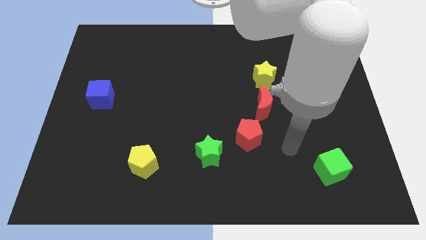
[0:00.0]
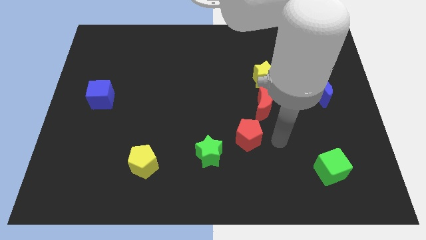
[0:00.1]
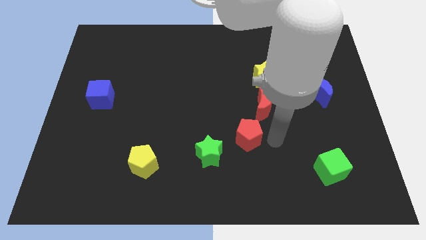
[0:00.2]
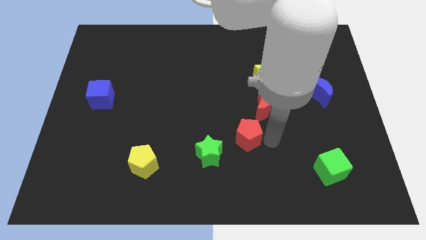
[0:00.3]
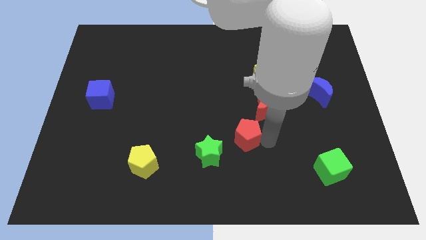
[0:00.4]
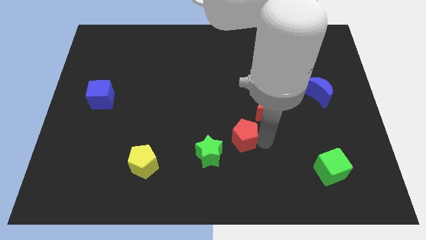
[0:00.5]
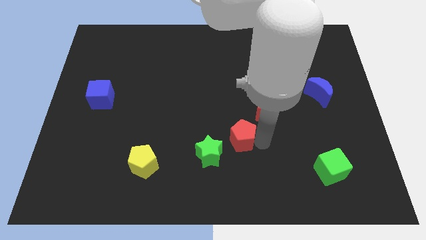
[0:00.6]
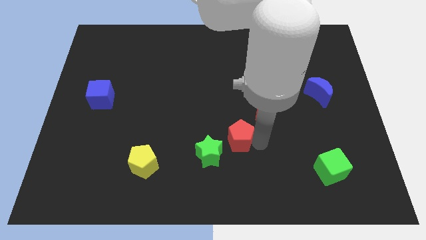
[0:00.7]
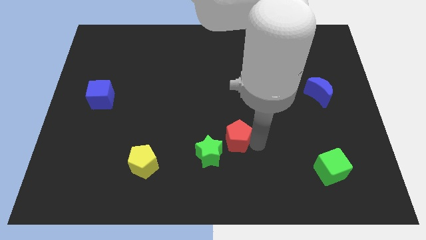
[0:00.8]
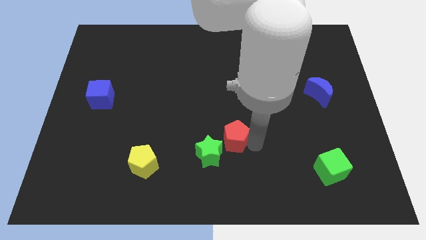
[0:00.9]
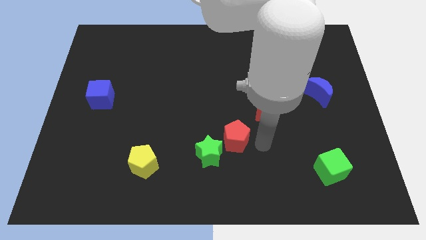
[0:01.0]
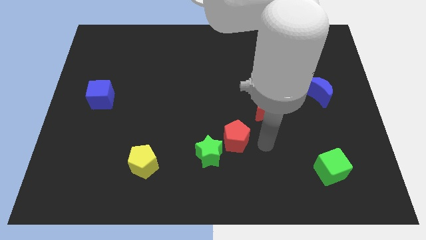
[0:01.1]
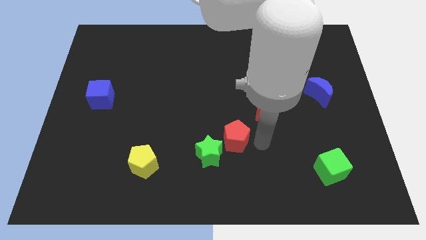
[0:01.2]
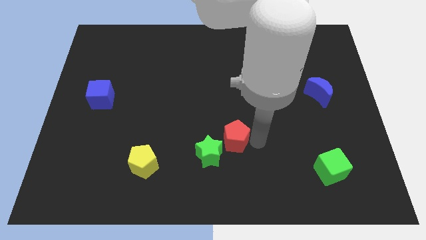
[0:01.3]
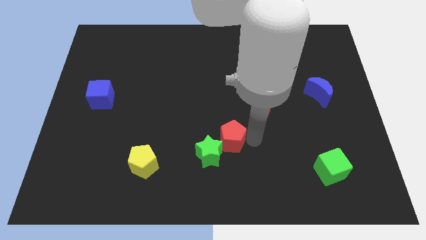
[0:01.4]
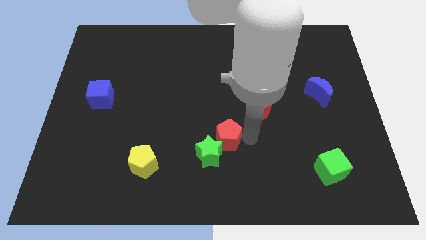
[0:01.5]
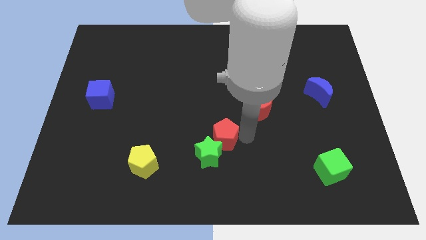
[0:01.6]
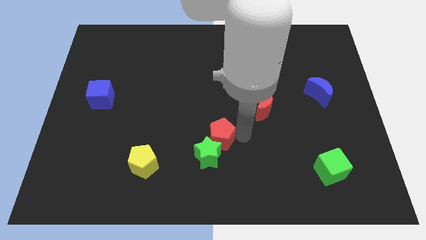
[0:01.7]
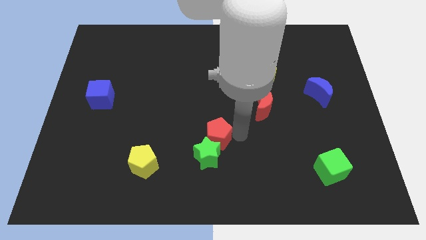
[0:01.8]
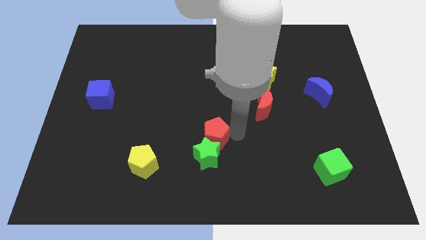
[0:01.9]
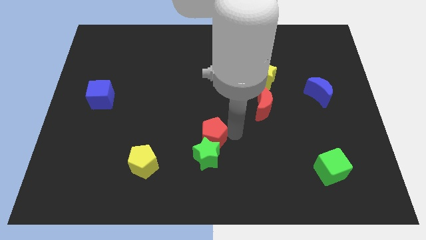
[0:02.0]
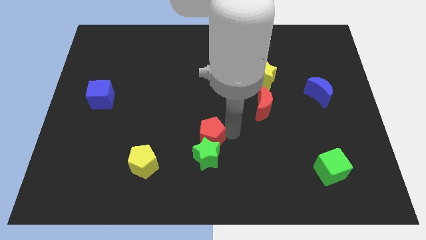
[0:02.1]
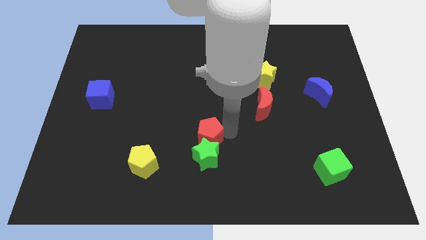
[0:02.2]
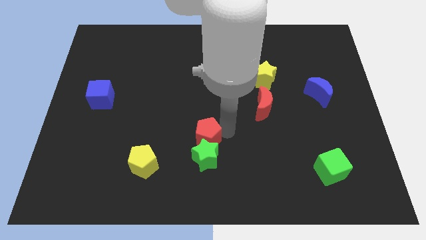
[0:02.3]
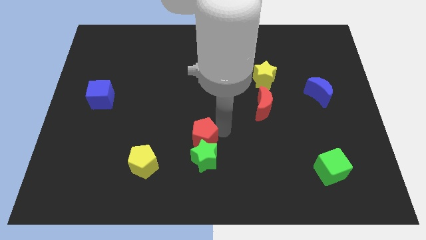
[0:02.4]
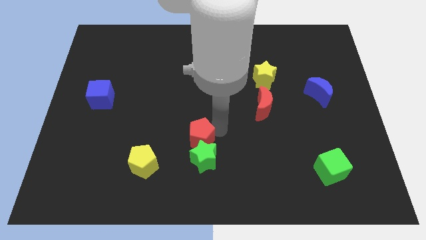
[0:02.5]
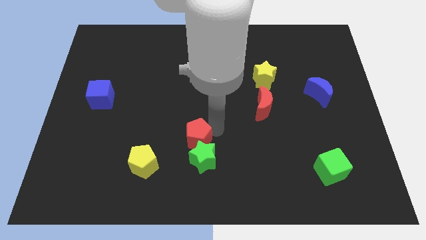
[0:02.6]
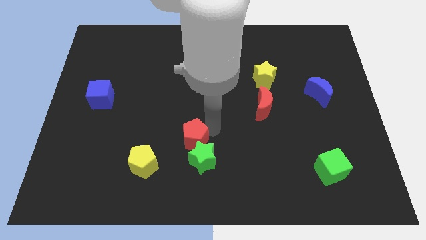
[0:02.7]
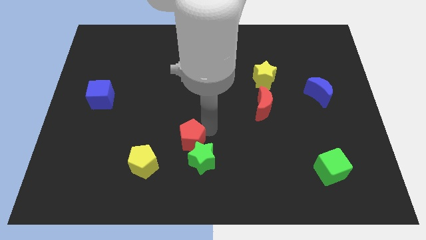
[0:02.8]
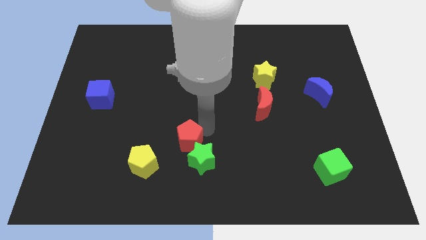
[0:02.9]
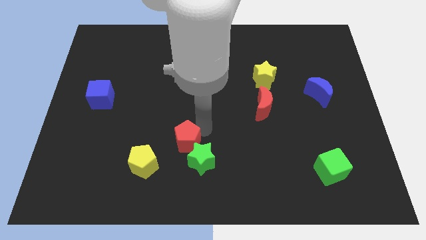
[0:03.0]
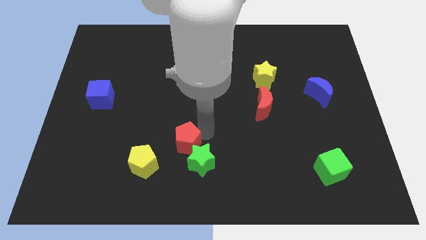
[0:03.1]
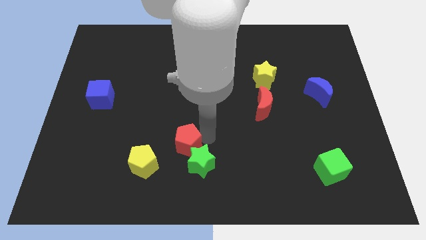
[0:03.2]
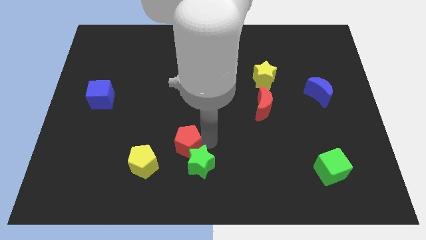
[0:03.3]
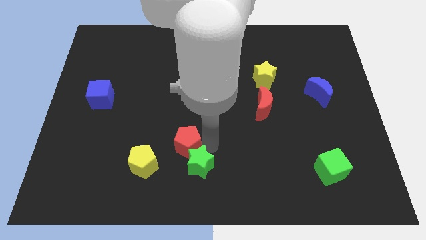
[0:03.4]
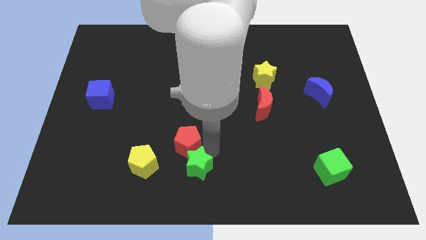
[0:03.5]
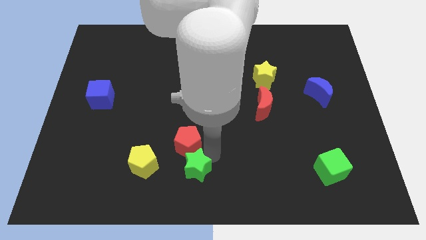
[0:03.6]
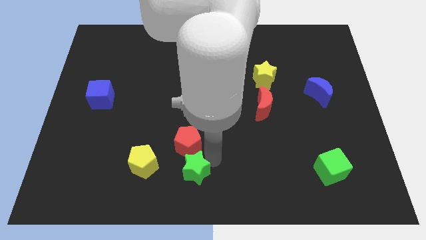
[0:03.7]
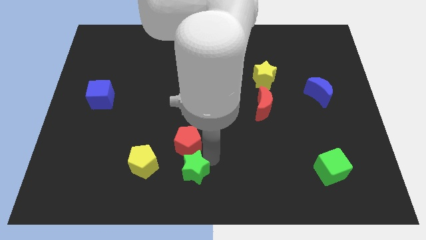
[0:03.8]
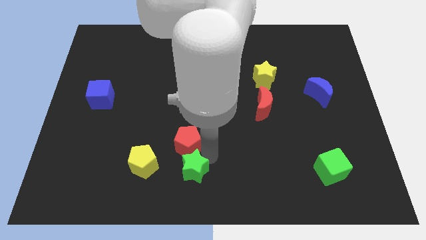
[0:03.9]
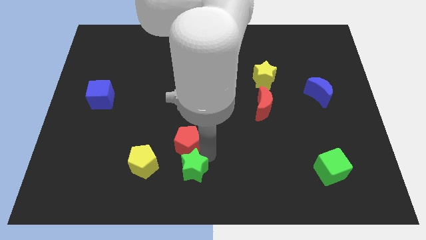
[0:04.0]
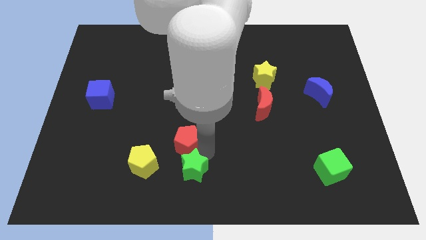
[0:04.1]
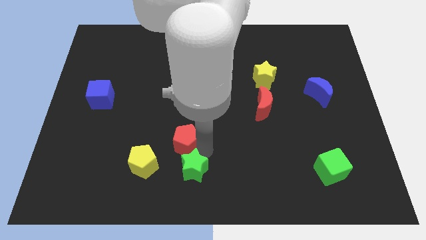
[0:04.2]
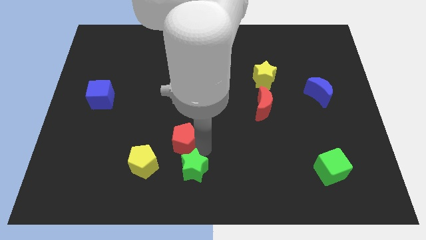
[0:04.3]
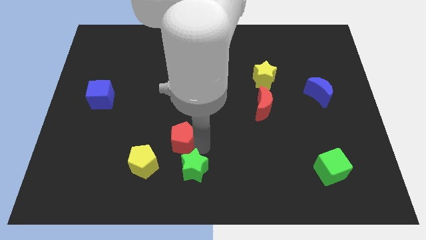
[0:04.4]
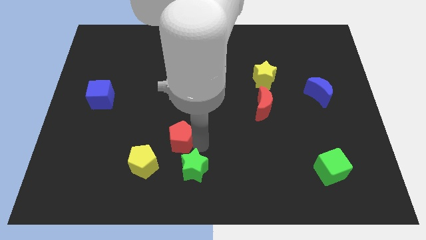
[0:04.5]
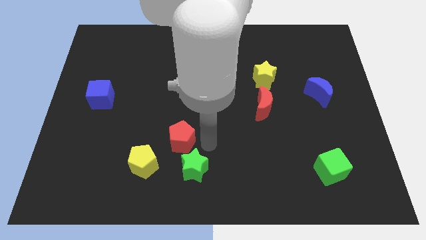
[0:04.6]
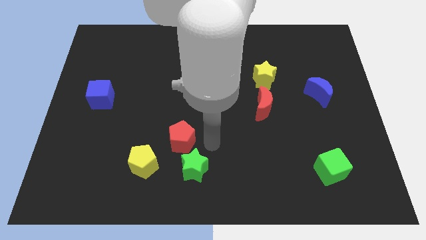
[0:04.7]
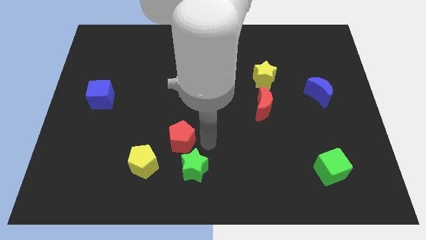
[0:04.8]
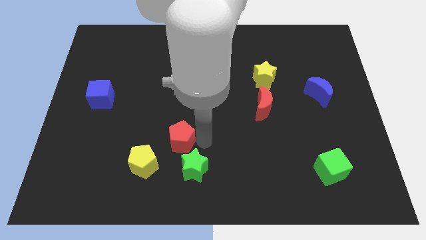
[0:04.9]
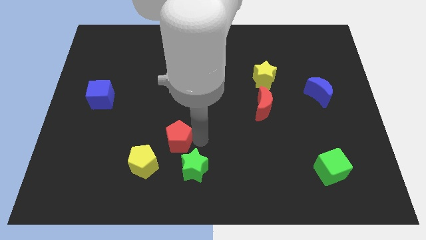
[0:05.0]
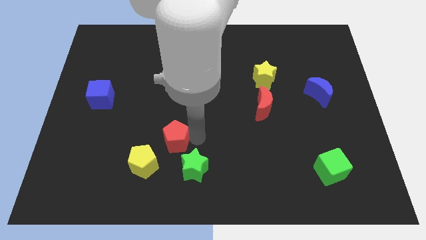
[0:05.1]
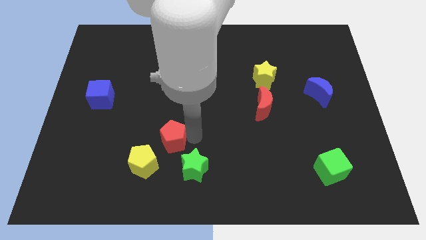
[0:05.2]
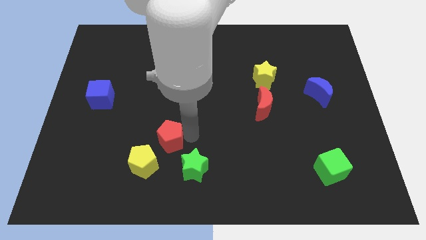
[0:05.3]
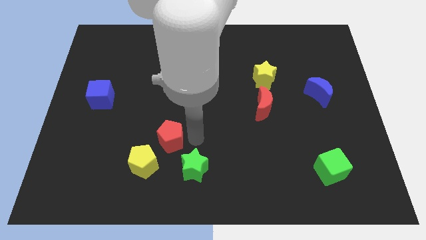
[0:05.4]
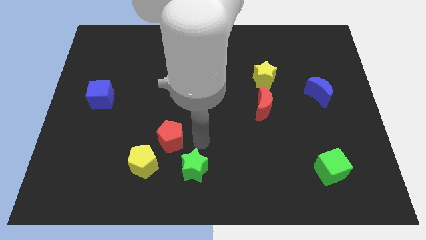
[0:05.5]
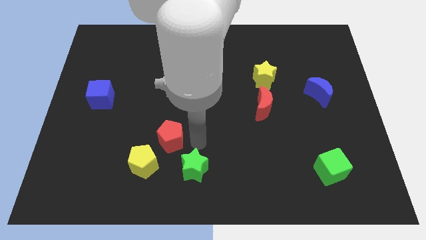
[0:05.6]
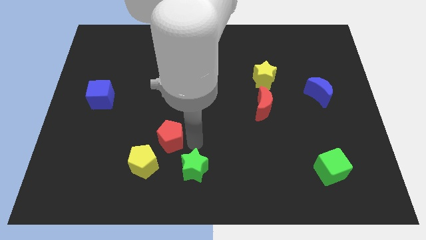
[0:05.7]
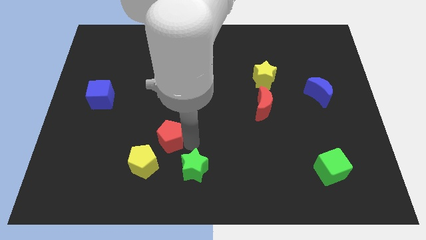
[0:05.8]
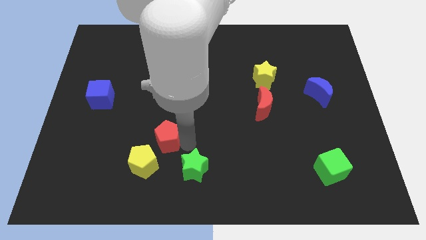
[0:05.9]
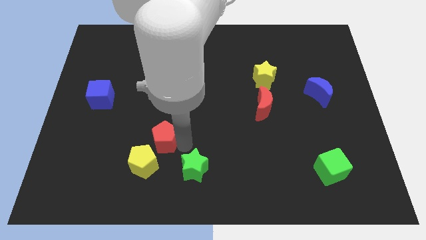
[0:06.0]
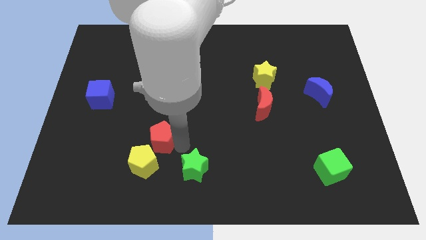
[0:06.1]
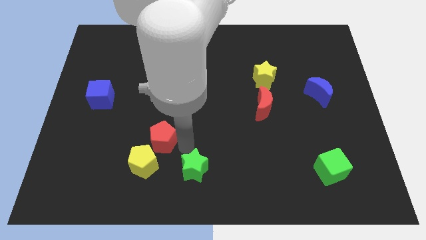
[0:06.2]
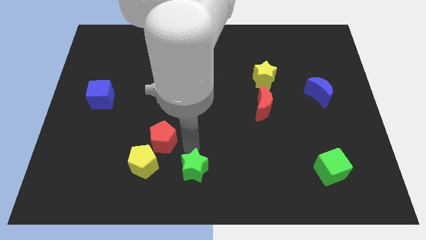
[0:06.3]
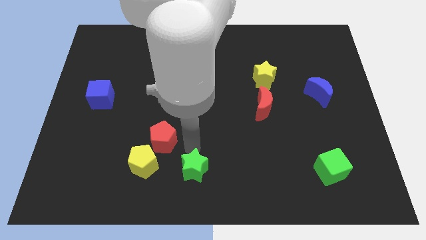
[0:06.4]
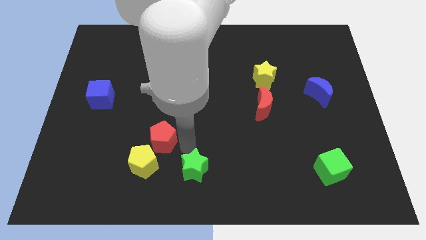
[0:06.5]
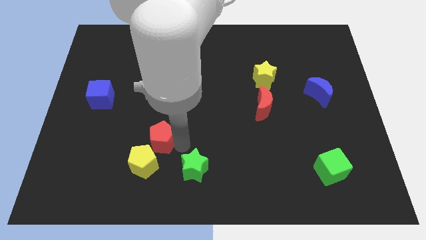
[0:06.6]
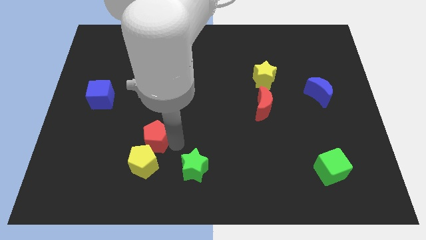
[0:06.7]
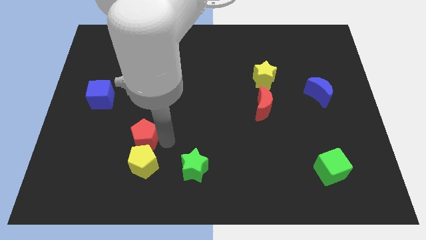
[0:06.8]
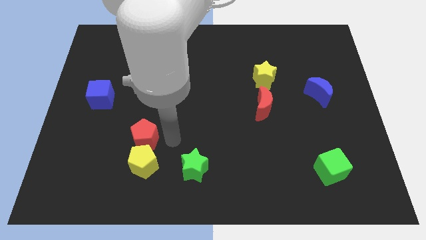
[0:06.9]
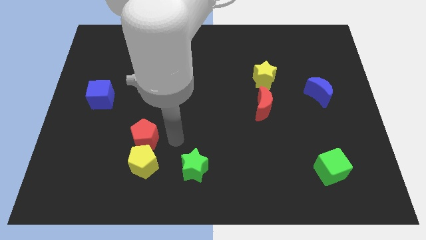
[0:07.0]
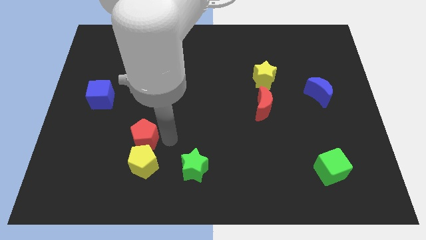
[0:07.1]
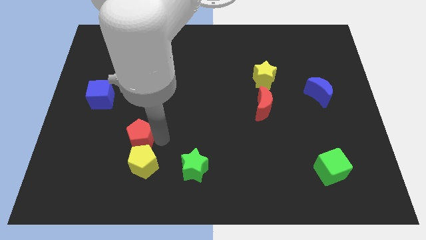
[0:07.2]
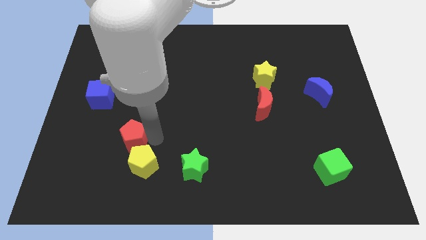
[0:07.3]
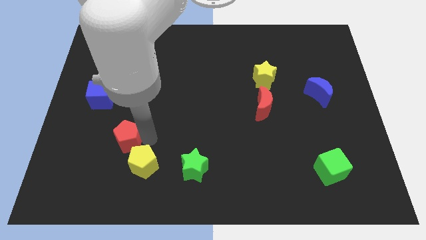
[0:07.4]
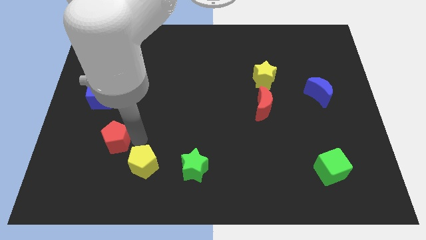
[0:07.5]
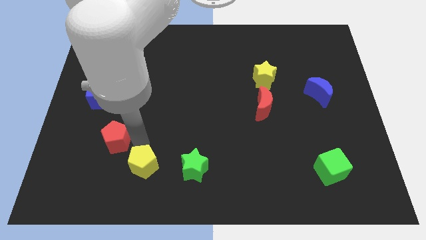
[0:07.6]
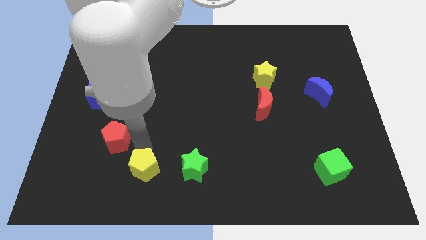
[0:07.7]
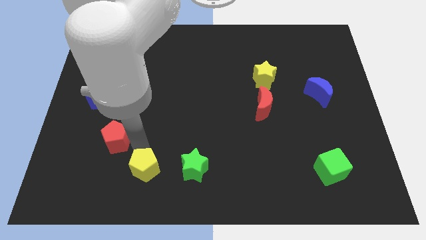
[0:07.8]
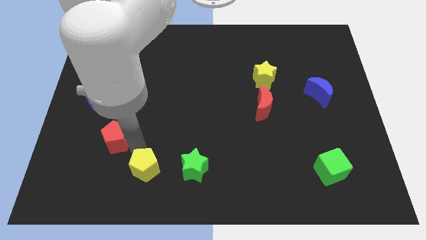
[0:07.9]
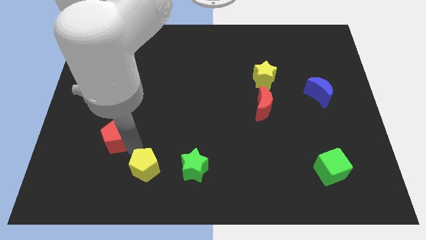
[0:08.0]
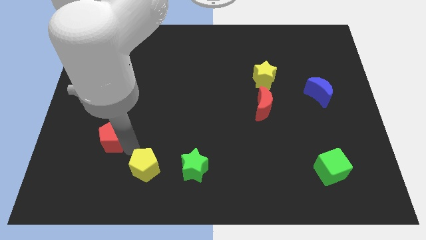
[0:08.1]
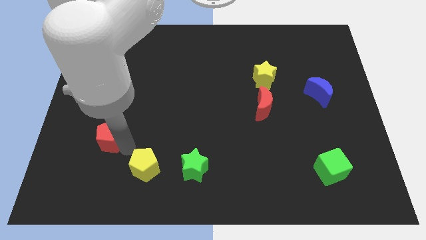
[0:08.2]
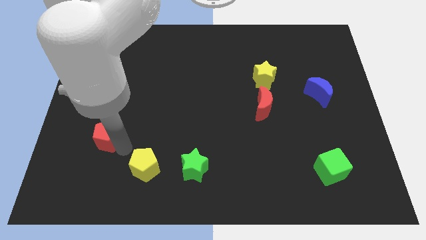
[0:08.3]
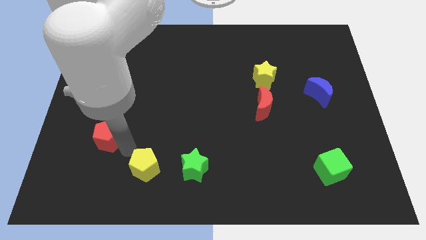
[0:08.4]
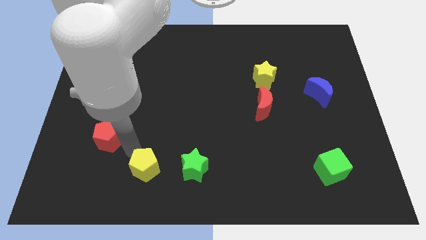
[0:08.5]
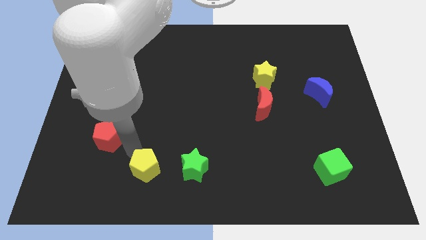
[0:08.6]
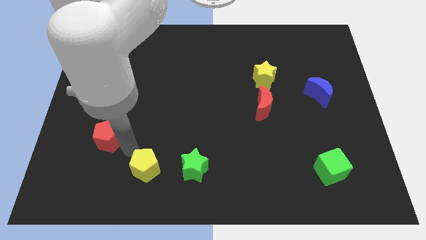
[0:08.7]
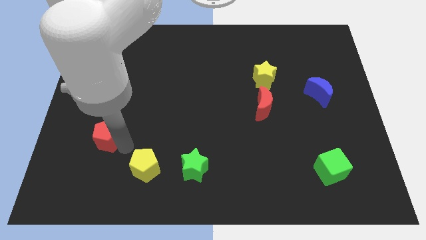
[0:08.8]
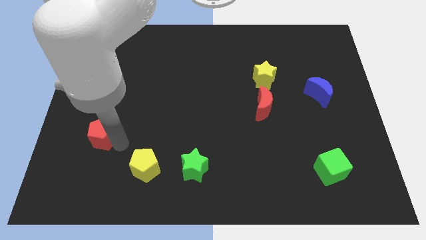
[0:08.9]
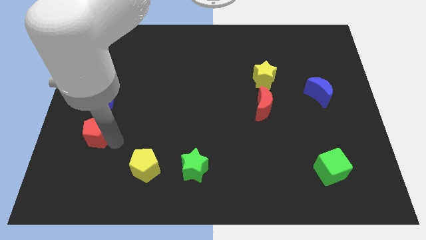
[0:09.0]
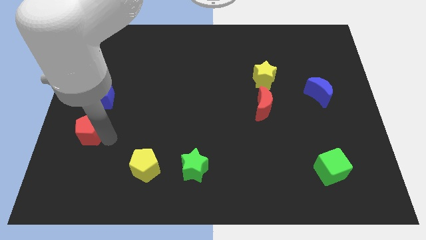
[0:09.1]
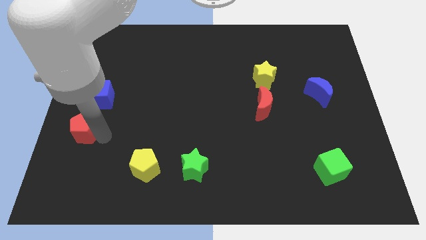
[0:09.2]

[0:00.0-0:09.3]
put the red pentagon to the left side
